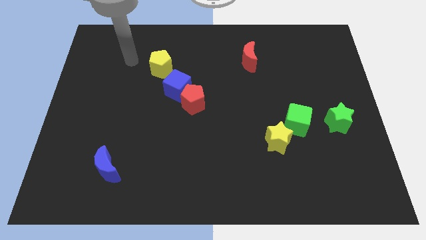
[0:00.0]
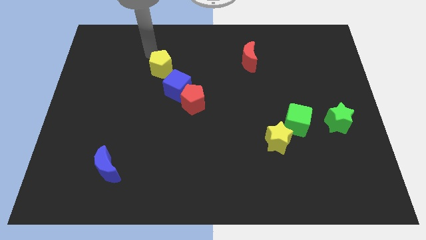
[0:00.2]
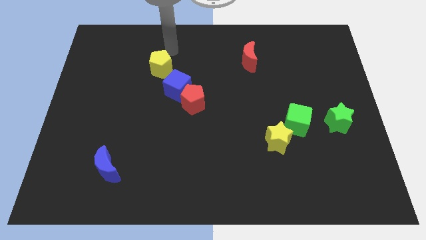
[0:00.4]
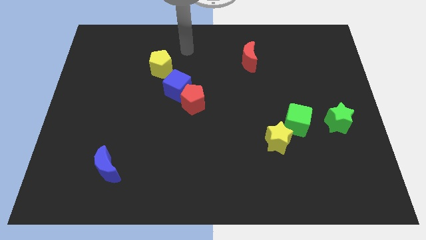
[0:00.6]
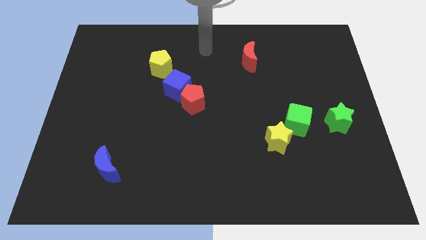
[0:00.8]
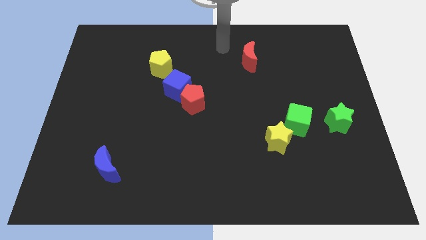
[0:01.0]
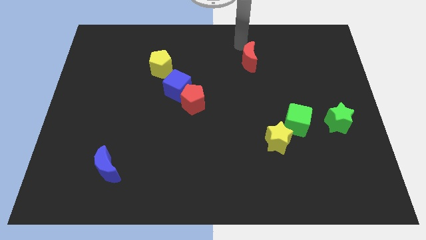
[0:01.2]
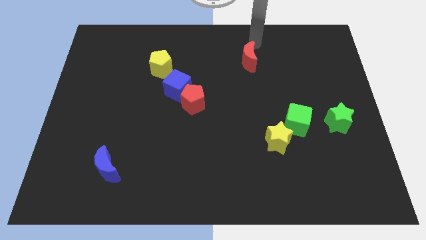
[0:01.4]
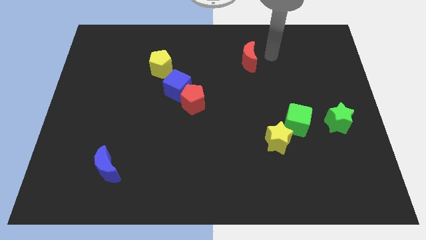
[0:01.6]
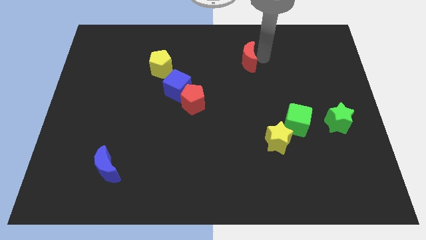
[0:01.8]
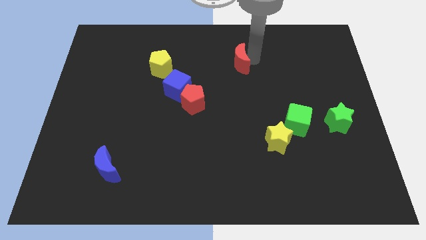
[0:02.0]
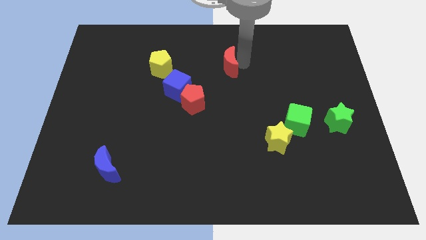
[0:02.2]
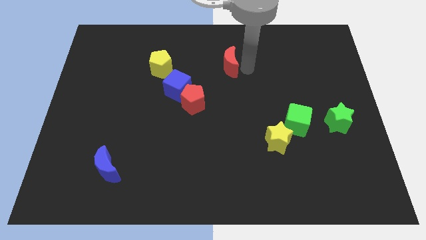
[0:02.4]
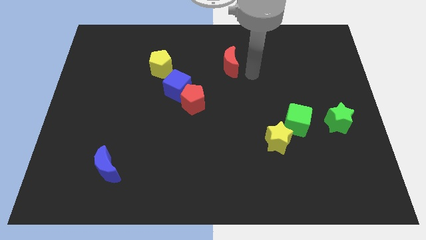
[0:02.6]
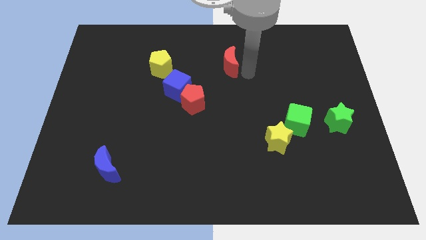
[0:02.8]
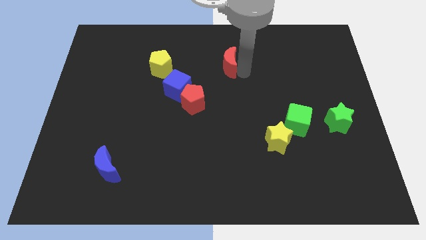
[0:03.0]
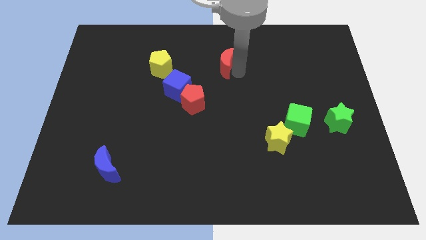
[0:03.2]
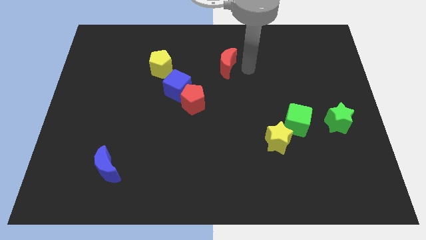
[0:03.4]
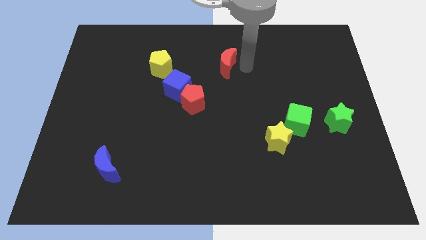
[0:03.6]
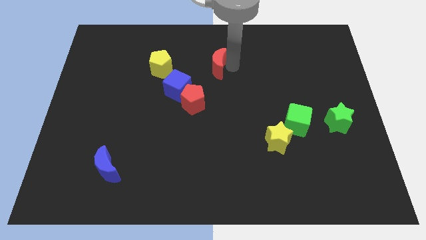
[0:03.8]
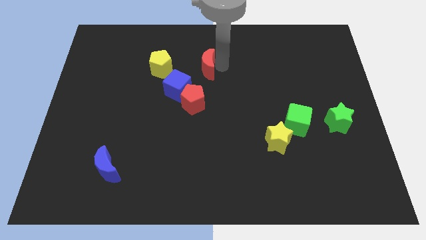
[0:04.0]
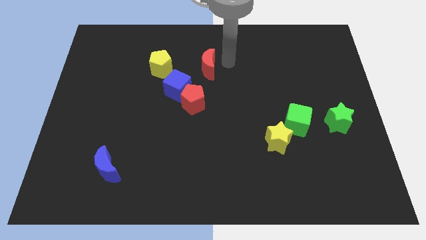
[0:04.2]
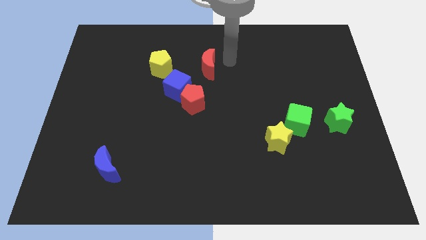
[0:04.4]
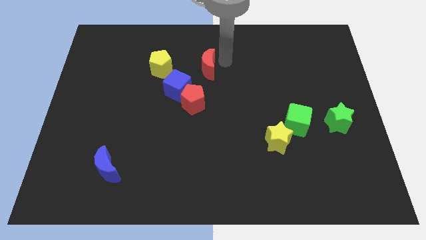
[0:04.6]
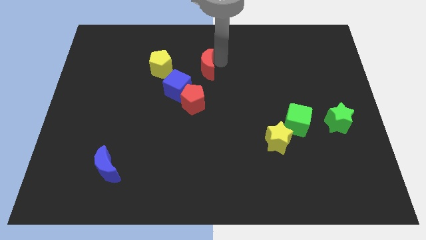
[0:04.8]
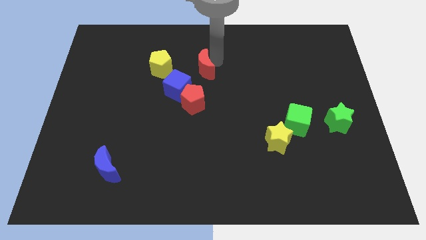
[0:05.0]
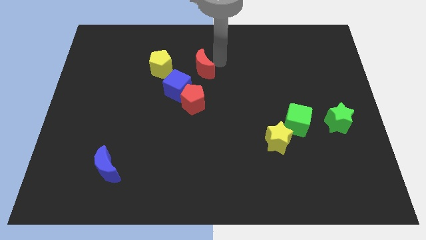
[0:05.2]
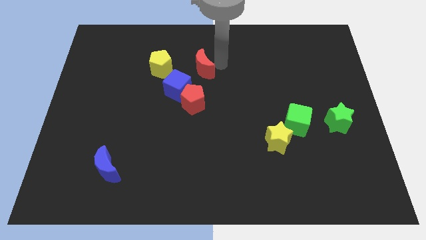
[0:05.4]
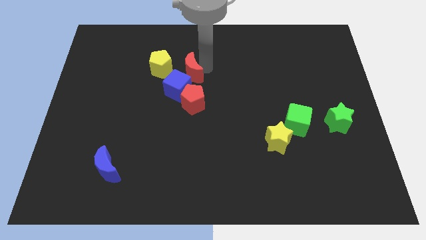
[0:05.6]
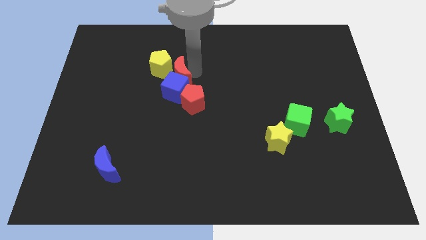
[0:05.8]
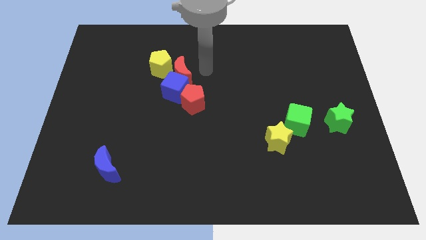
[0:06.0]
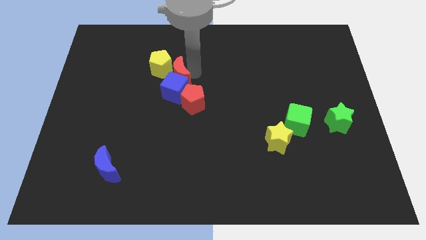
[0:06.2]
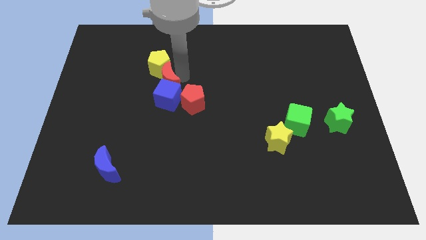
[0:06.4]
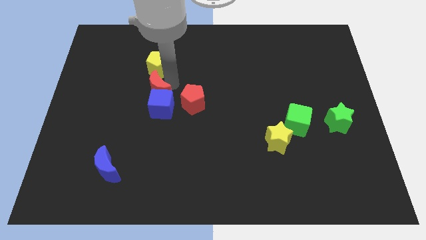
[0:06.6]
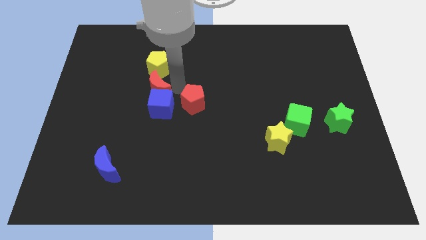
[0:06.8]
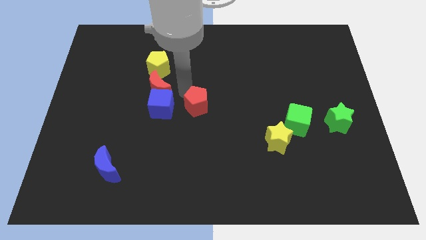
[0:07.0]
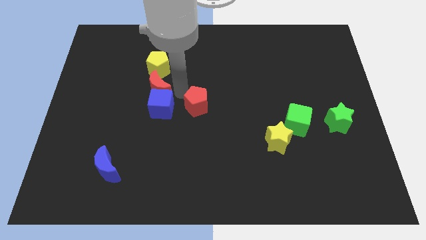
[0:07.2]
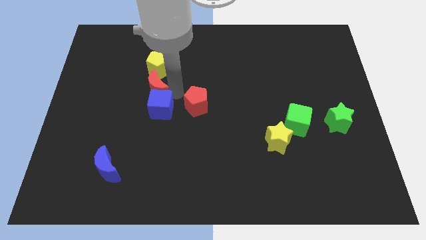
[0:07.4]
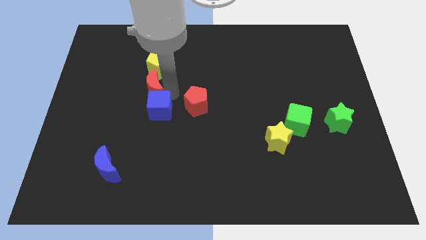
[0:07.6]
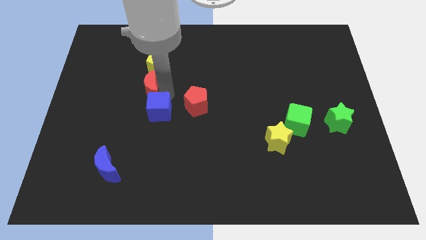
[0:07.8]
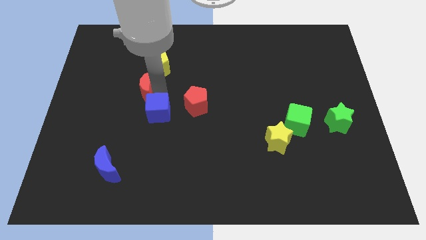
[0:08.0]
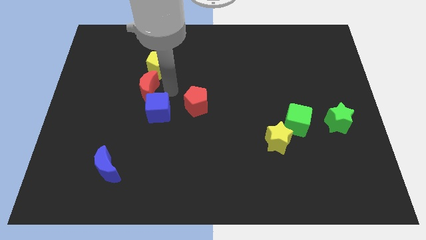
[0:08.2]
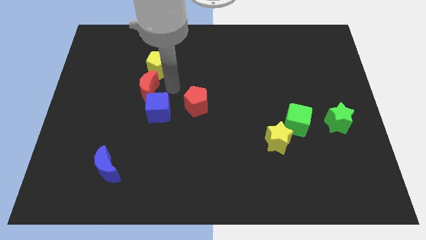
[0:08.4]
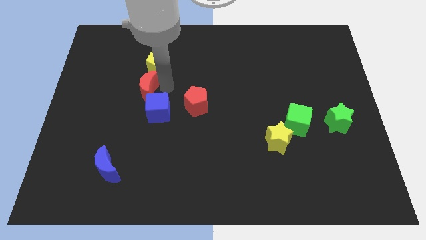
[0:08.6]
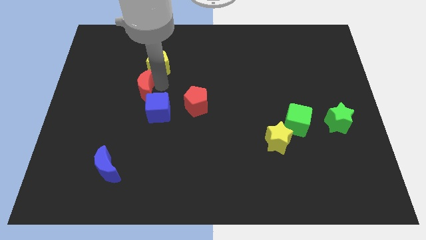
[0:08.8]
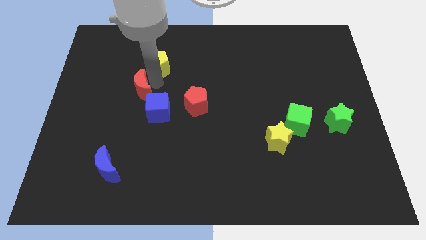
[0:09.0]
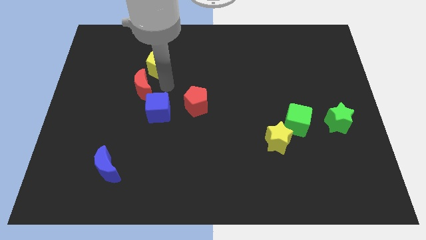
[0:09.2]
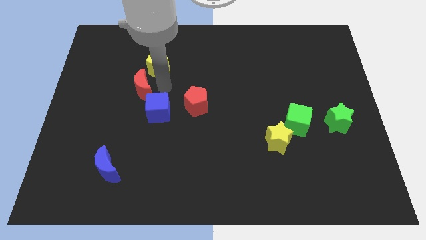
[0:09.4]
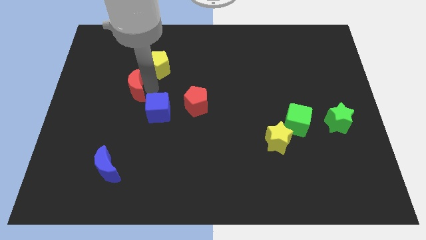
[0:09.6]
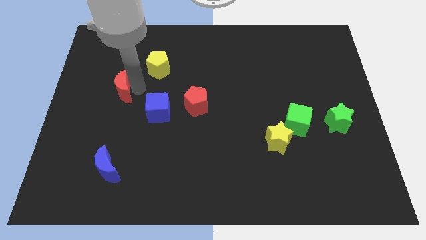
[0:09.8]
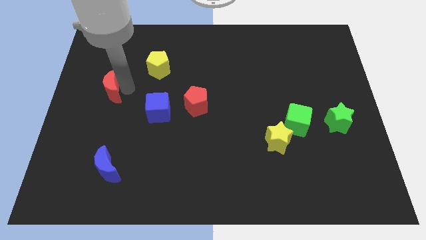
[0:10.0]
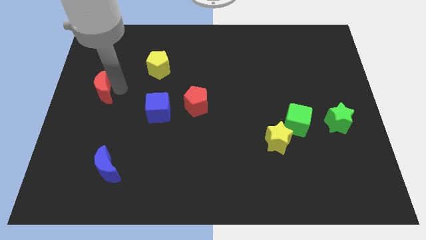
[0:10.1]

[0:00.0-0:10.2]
push the red moon to the center left

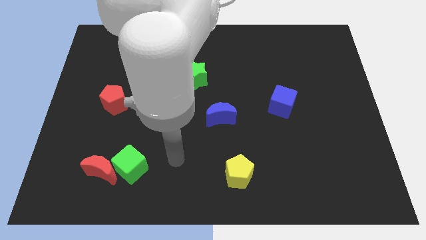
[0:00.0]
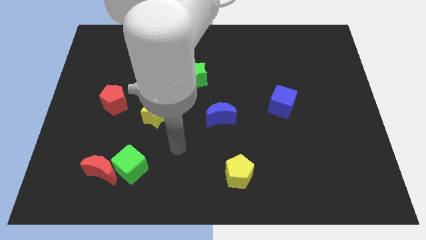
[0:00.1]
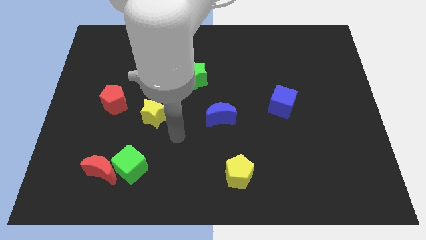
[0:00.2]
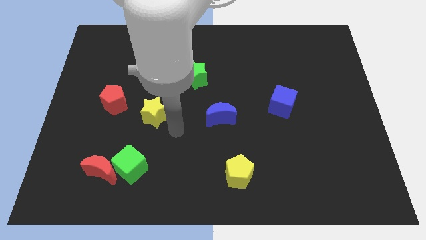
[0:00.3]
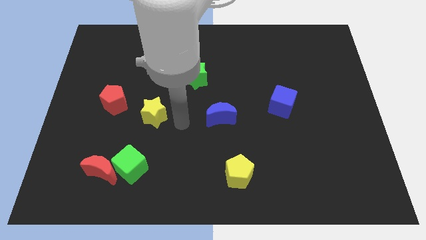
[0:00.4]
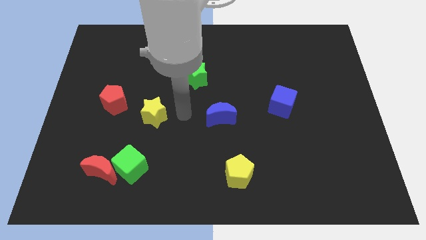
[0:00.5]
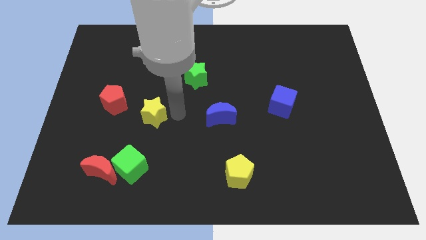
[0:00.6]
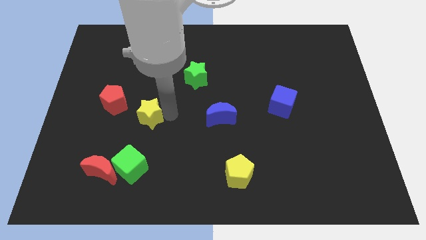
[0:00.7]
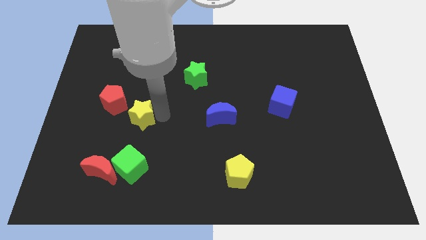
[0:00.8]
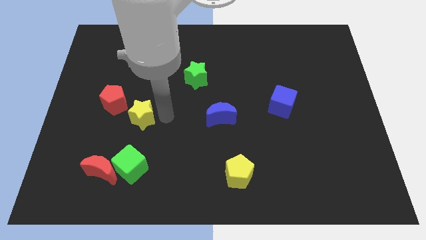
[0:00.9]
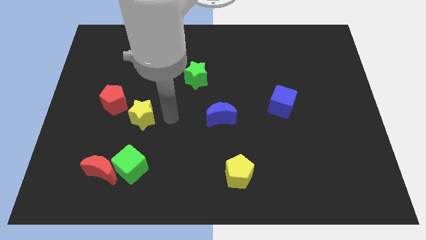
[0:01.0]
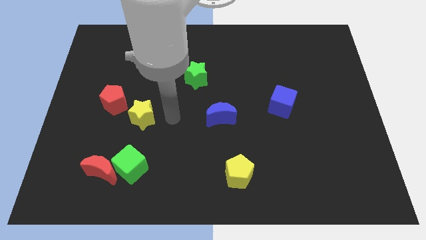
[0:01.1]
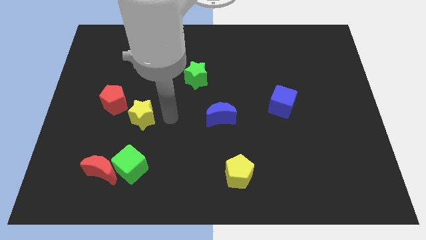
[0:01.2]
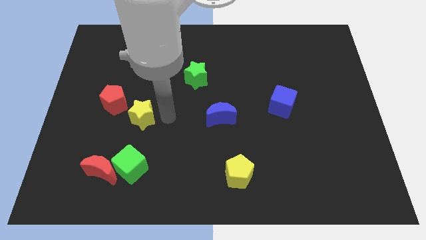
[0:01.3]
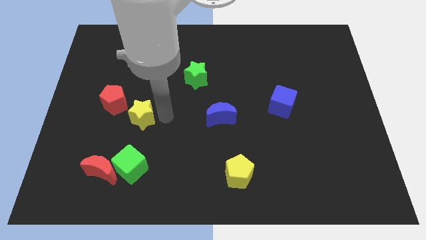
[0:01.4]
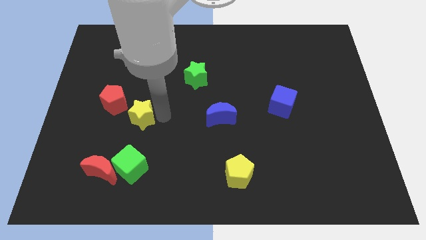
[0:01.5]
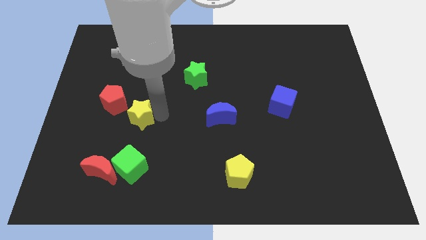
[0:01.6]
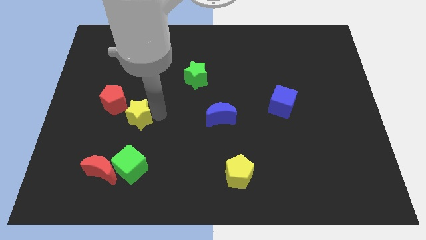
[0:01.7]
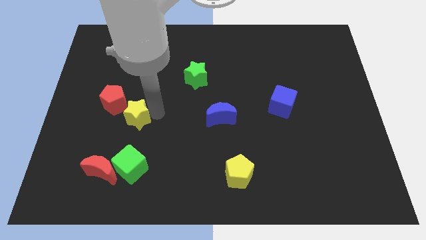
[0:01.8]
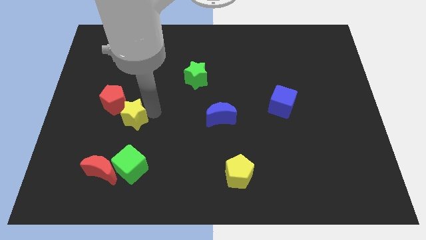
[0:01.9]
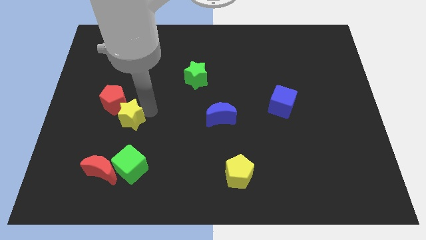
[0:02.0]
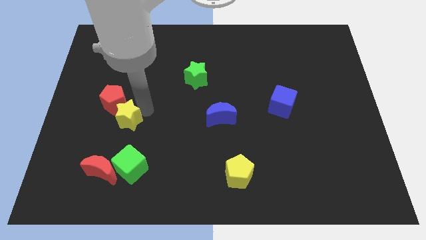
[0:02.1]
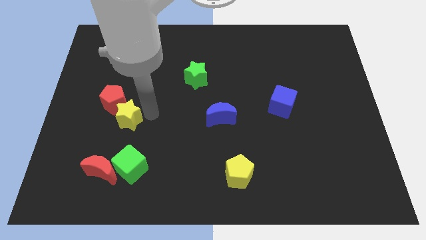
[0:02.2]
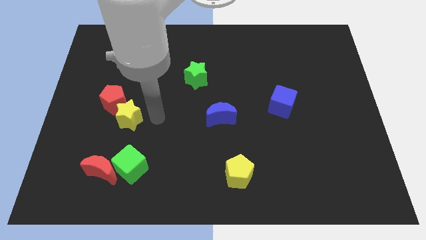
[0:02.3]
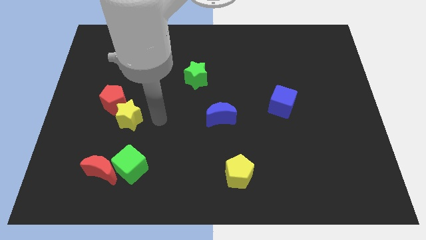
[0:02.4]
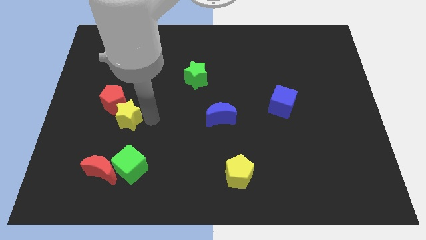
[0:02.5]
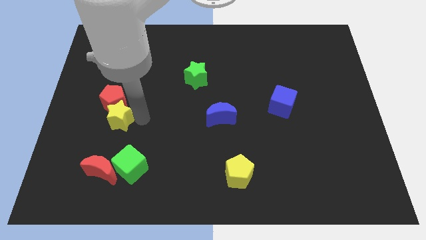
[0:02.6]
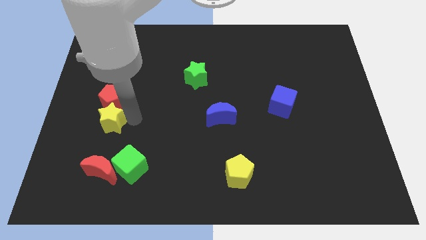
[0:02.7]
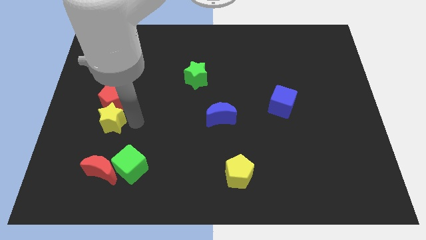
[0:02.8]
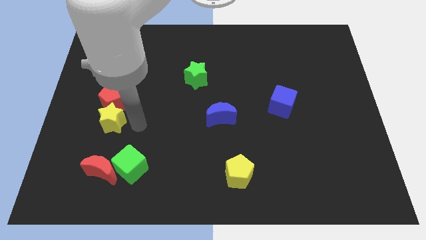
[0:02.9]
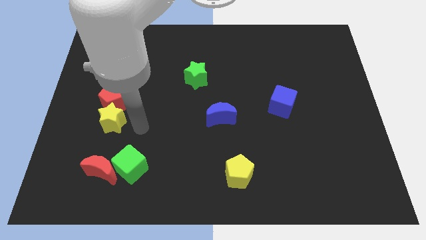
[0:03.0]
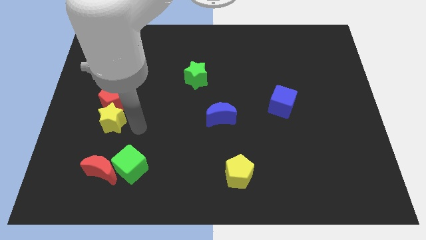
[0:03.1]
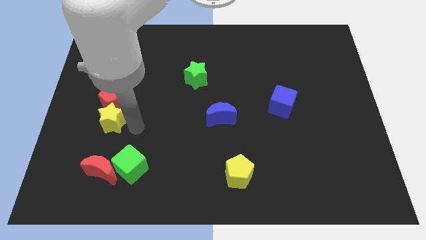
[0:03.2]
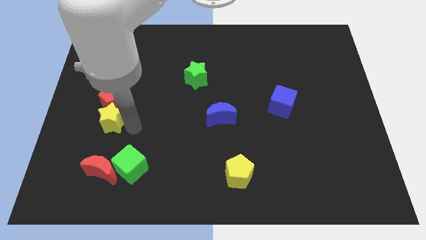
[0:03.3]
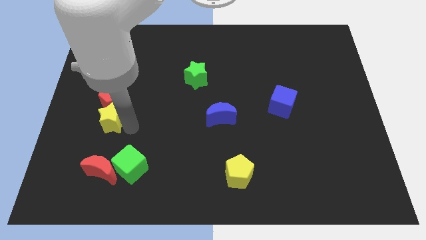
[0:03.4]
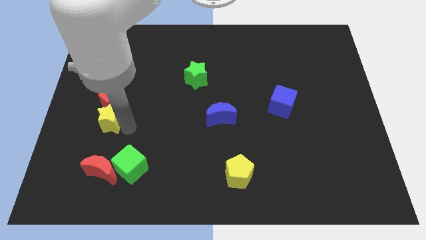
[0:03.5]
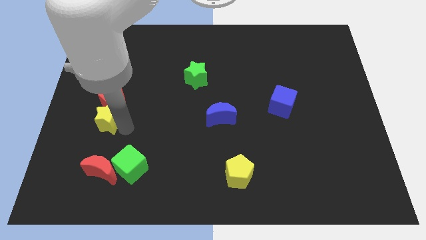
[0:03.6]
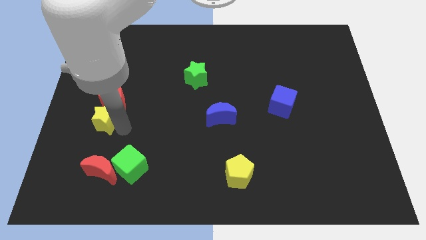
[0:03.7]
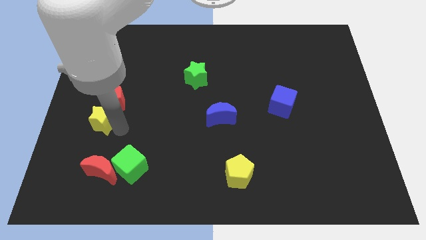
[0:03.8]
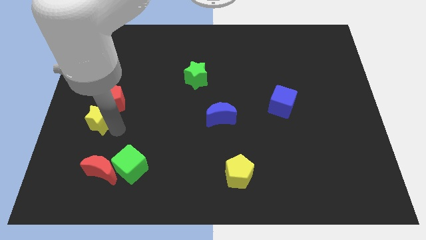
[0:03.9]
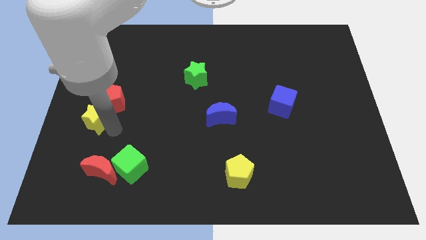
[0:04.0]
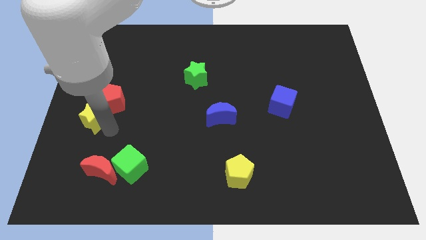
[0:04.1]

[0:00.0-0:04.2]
move the yellow star to the left side
